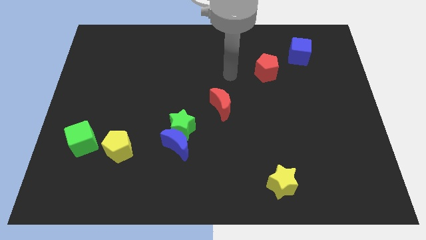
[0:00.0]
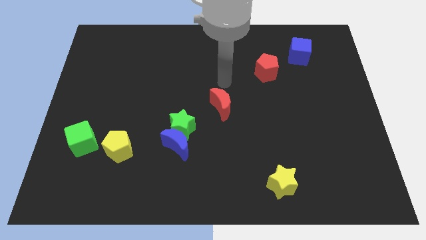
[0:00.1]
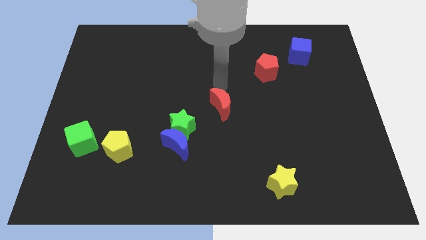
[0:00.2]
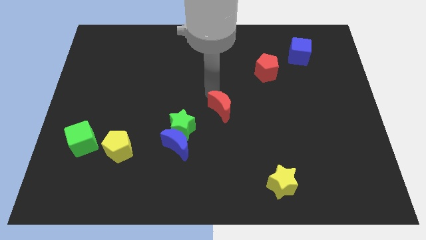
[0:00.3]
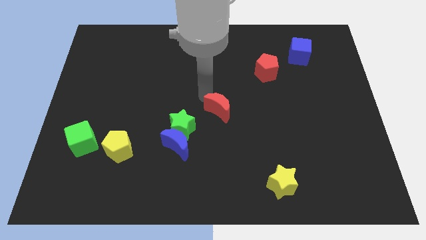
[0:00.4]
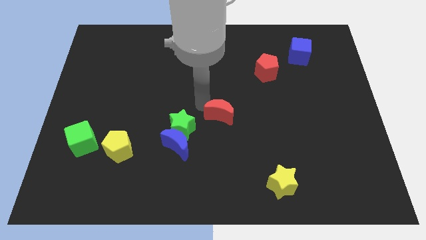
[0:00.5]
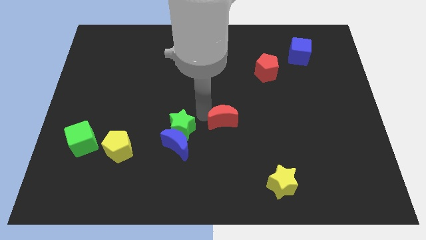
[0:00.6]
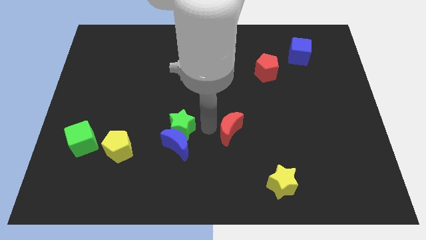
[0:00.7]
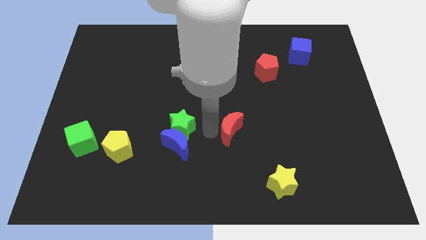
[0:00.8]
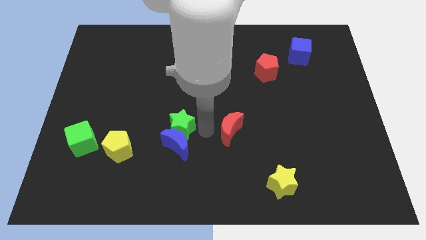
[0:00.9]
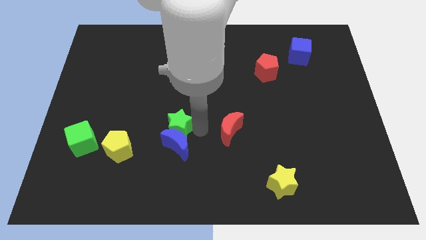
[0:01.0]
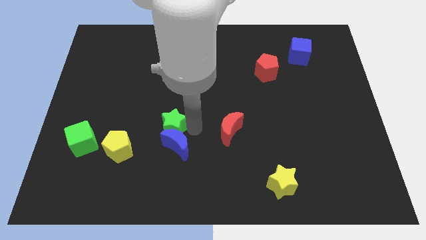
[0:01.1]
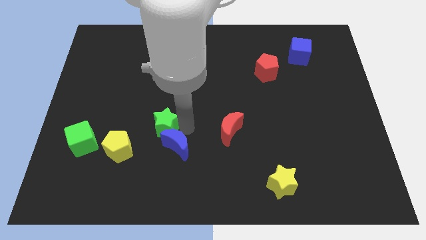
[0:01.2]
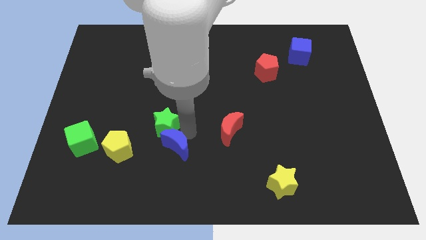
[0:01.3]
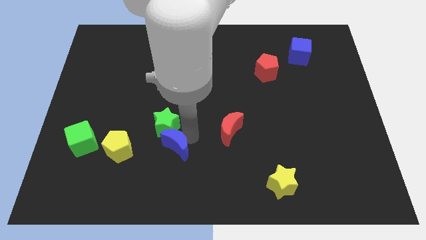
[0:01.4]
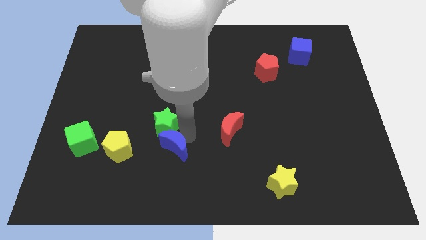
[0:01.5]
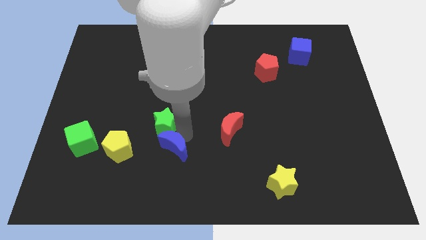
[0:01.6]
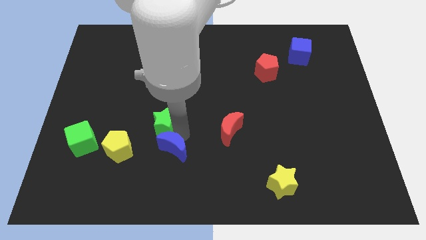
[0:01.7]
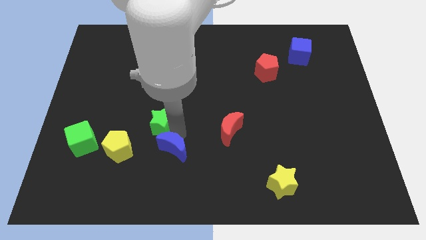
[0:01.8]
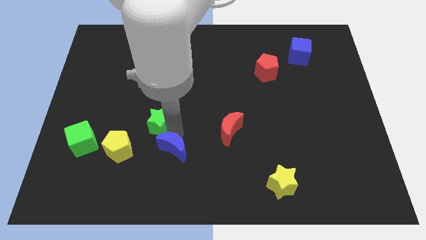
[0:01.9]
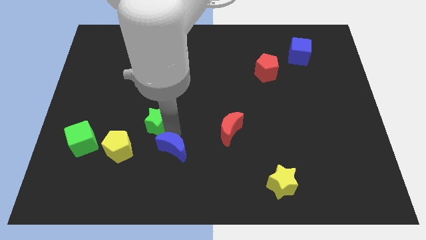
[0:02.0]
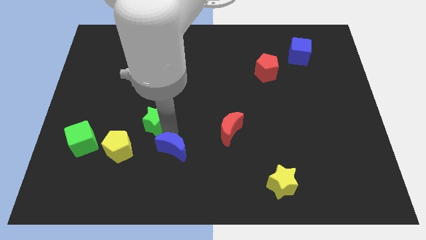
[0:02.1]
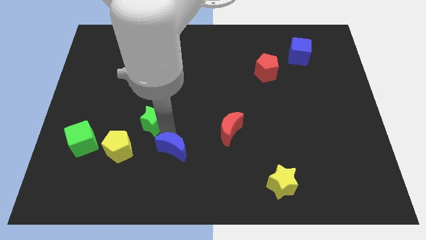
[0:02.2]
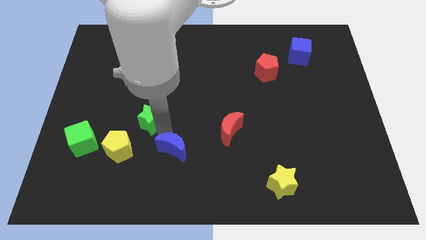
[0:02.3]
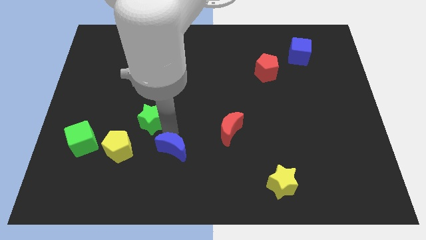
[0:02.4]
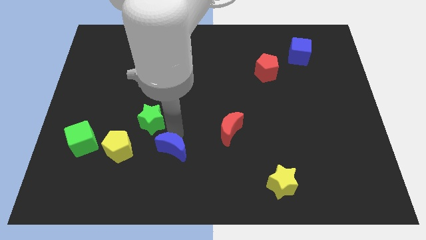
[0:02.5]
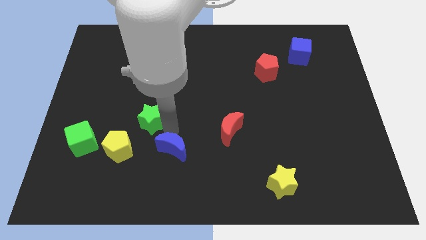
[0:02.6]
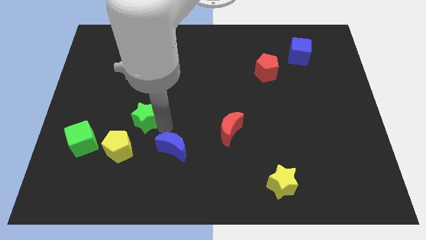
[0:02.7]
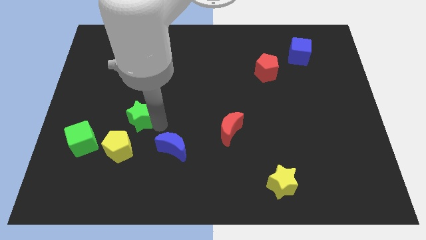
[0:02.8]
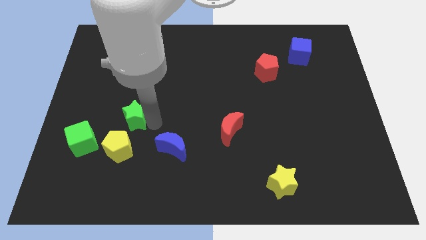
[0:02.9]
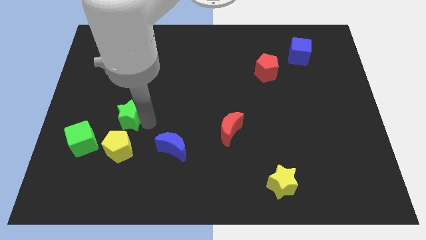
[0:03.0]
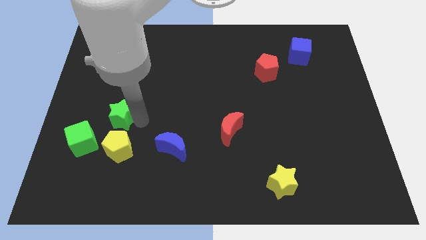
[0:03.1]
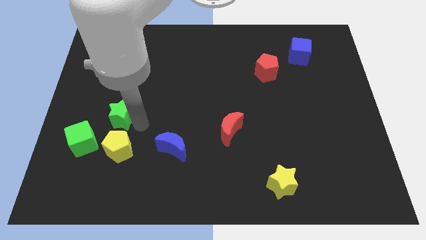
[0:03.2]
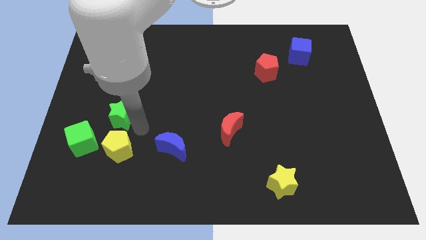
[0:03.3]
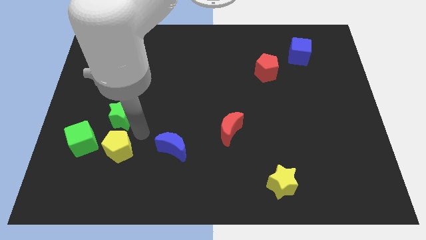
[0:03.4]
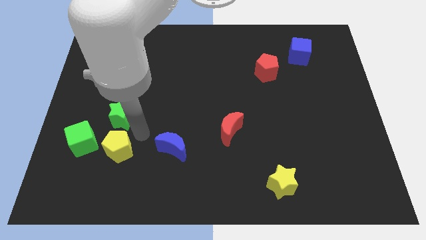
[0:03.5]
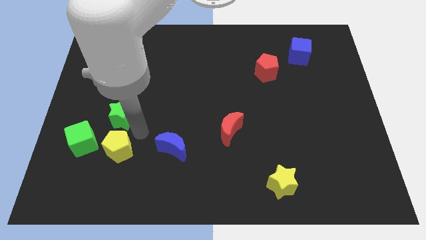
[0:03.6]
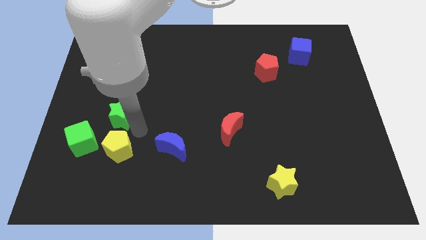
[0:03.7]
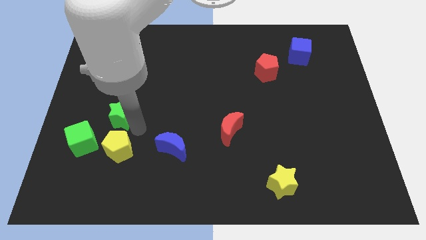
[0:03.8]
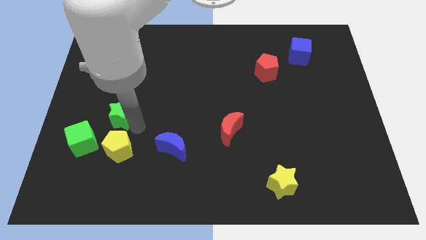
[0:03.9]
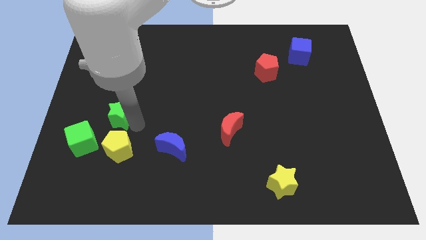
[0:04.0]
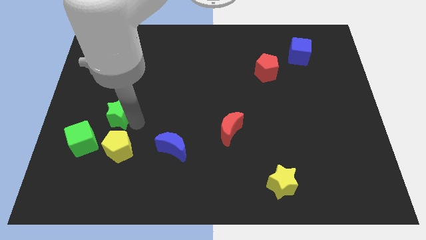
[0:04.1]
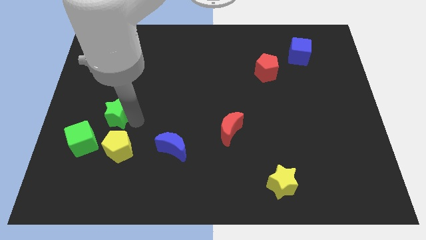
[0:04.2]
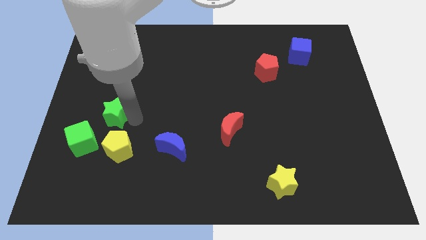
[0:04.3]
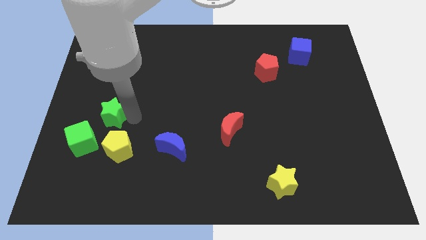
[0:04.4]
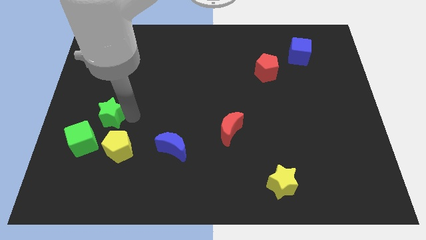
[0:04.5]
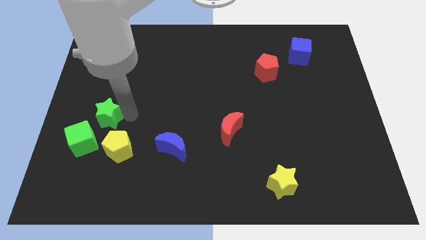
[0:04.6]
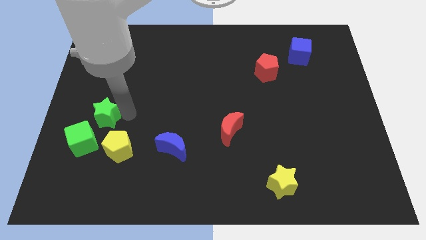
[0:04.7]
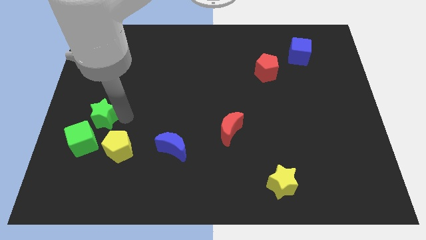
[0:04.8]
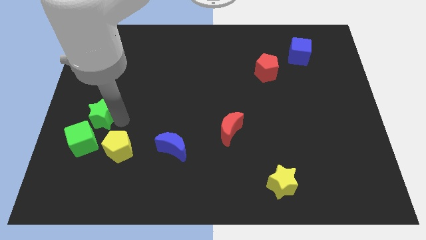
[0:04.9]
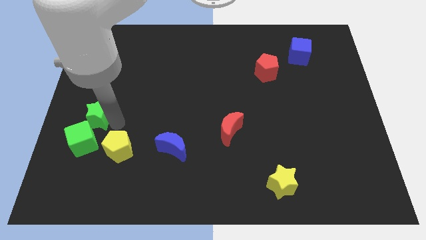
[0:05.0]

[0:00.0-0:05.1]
slide the green star to the left side

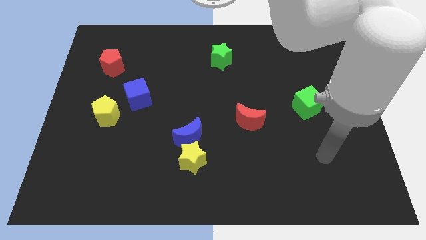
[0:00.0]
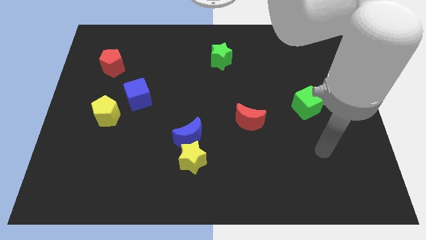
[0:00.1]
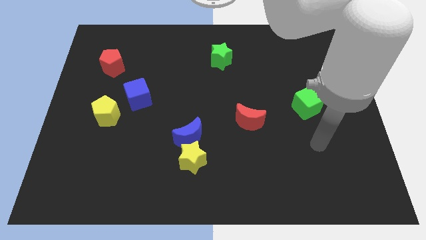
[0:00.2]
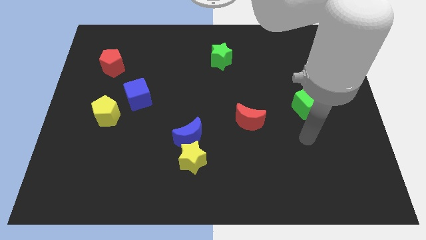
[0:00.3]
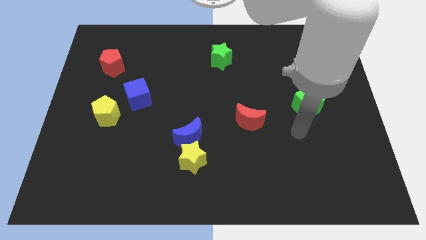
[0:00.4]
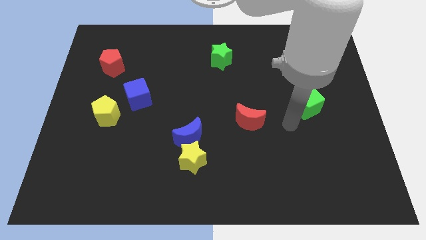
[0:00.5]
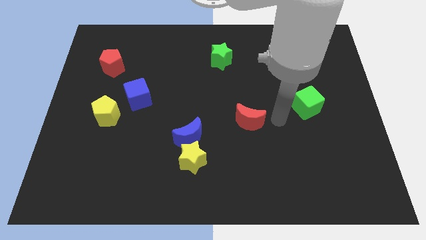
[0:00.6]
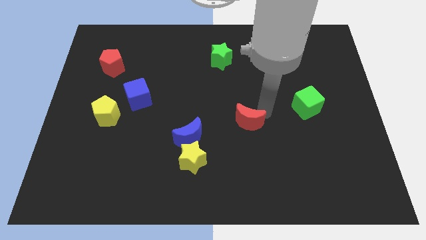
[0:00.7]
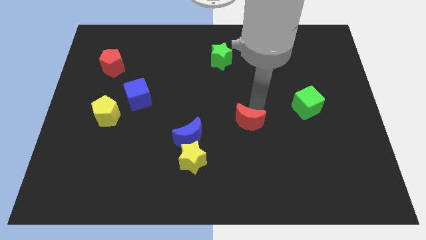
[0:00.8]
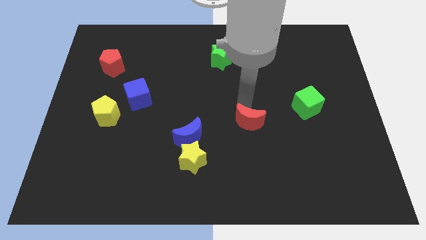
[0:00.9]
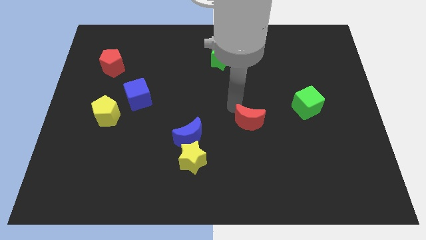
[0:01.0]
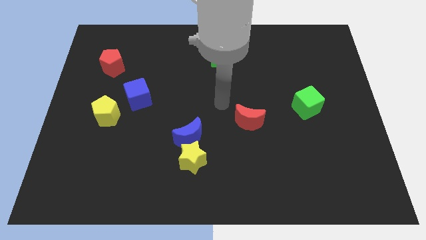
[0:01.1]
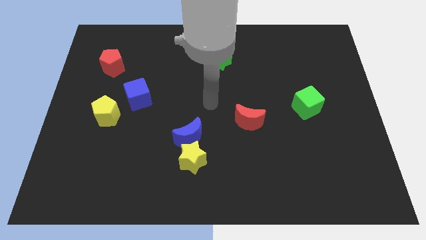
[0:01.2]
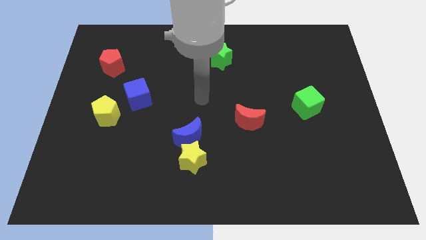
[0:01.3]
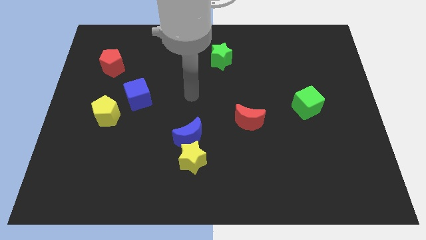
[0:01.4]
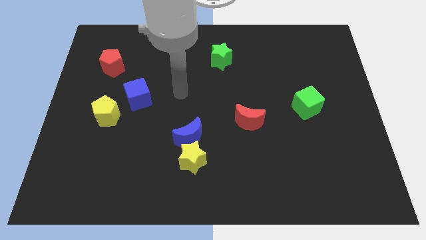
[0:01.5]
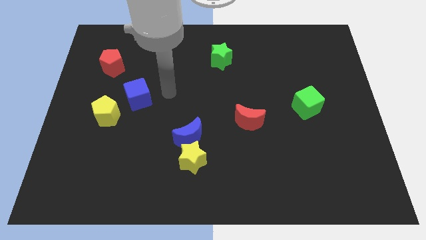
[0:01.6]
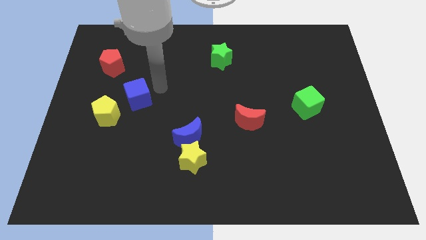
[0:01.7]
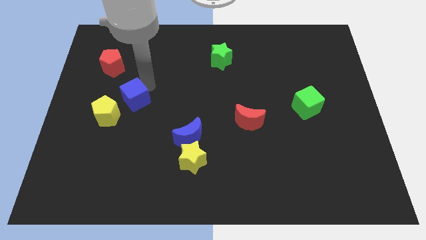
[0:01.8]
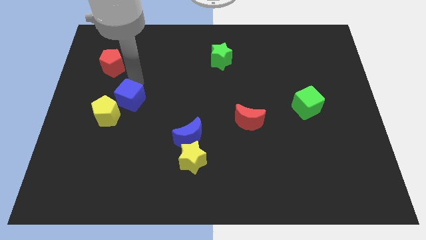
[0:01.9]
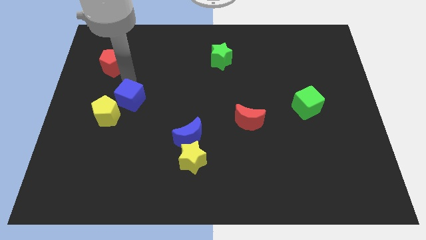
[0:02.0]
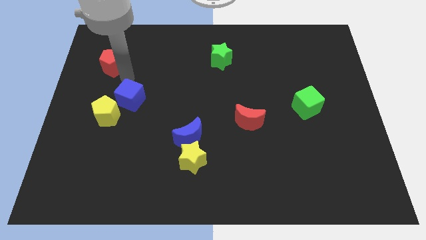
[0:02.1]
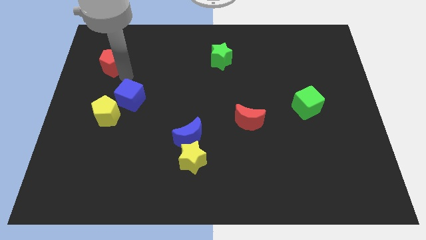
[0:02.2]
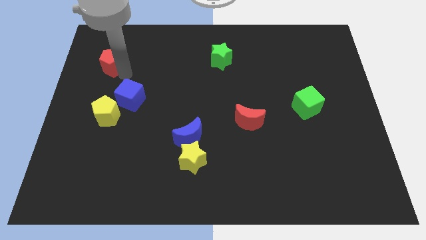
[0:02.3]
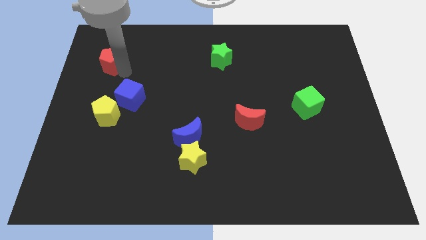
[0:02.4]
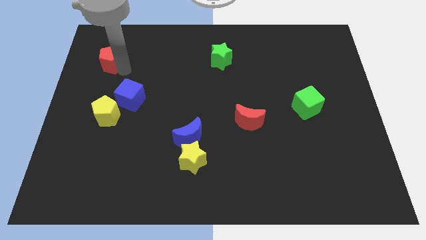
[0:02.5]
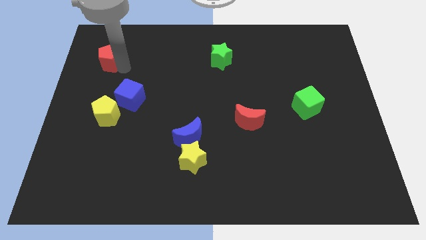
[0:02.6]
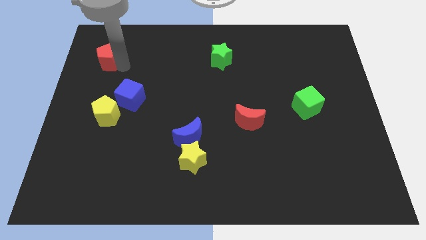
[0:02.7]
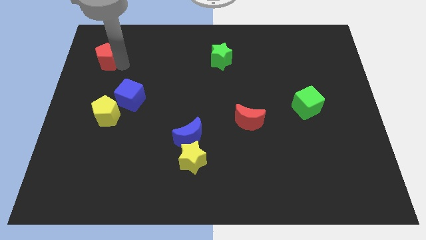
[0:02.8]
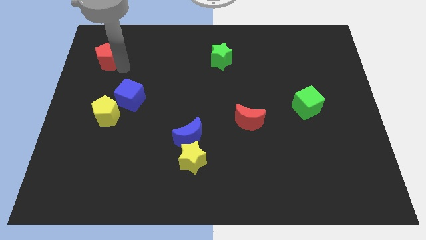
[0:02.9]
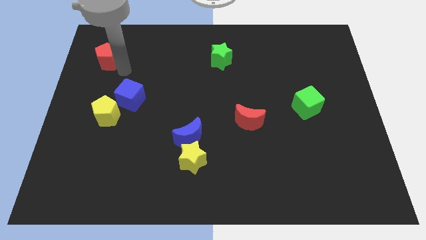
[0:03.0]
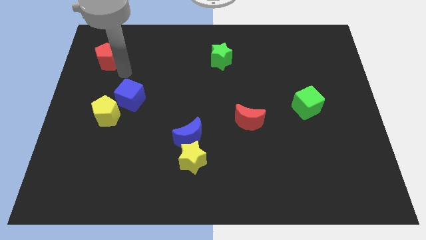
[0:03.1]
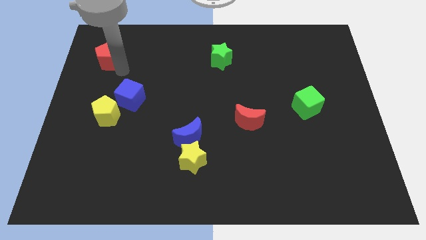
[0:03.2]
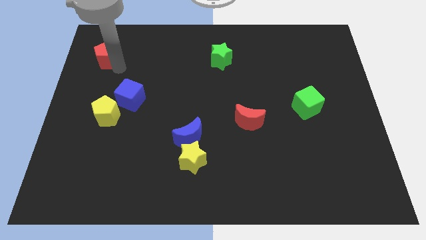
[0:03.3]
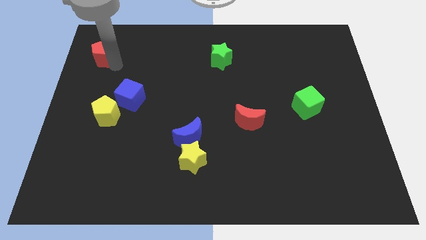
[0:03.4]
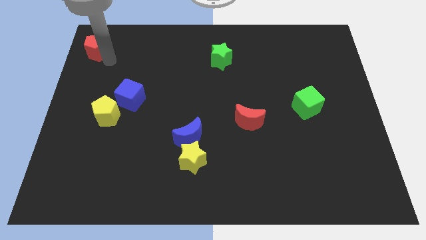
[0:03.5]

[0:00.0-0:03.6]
push the red pentagon to the top left corner
